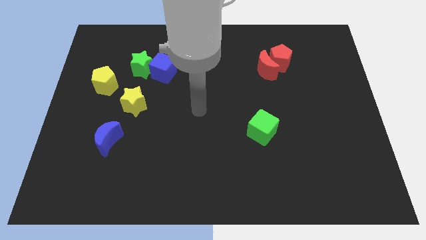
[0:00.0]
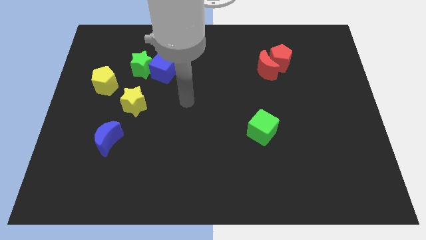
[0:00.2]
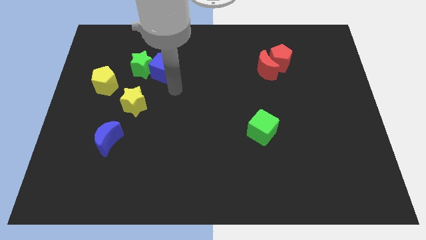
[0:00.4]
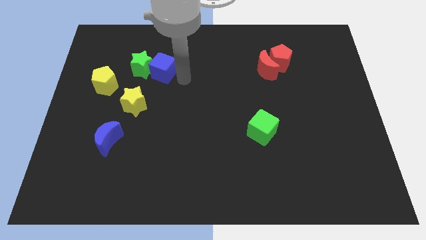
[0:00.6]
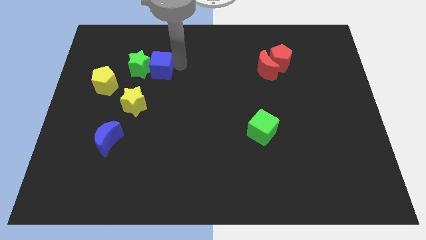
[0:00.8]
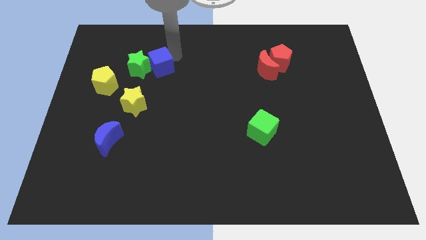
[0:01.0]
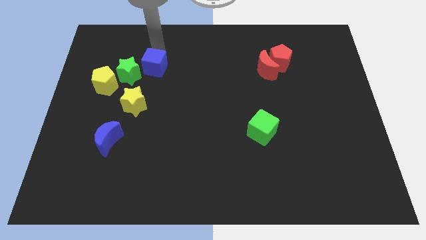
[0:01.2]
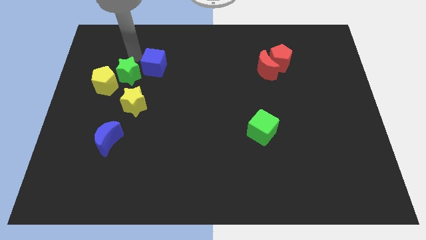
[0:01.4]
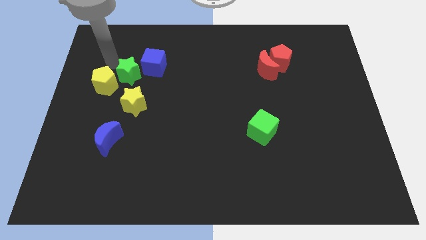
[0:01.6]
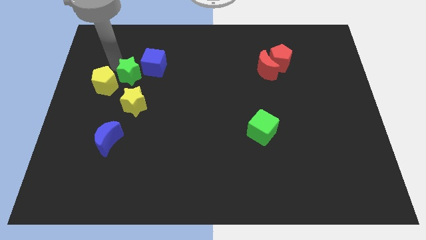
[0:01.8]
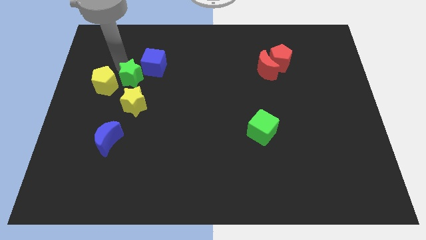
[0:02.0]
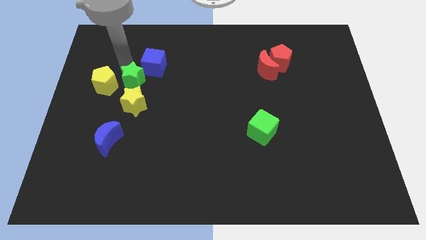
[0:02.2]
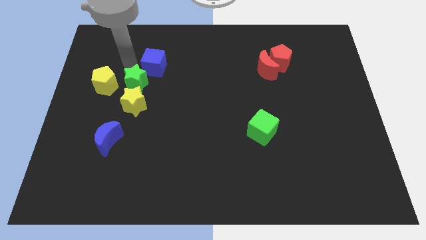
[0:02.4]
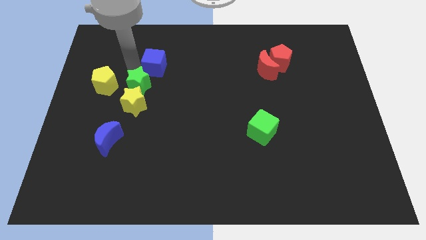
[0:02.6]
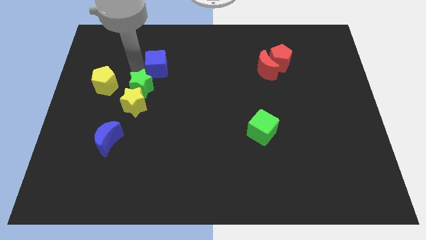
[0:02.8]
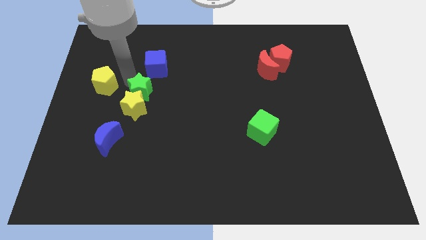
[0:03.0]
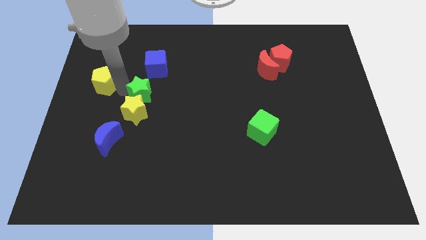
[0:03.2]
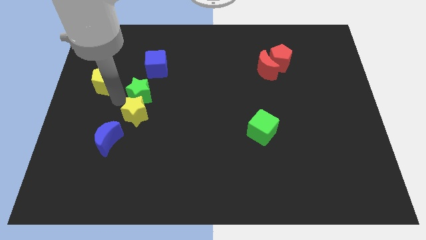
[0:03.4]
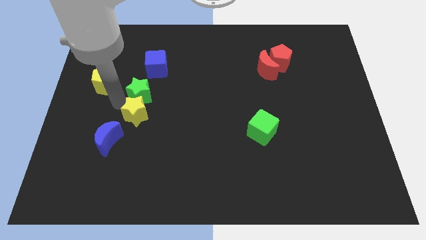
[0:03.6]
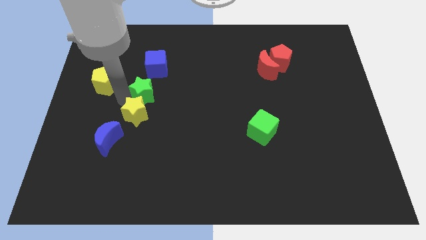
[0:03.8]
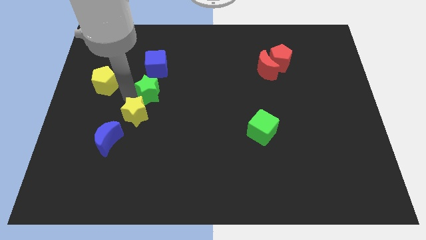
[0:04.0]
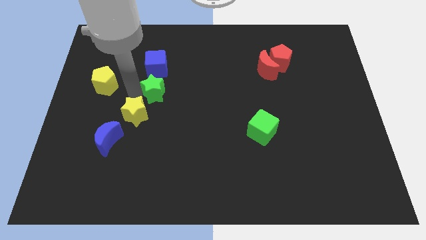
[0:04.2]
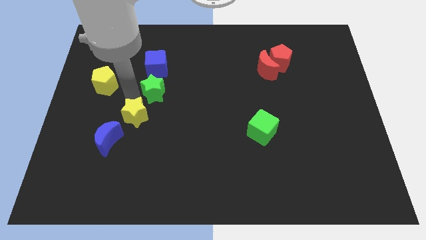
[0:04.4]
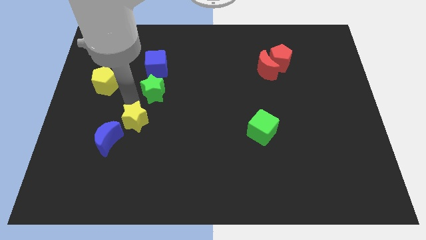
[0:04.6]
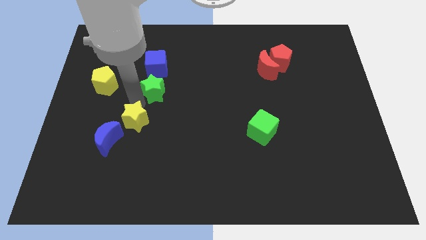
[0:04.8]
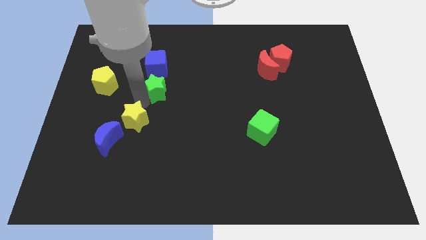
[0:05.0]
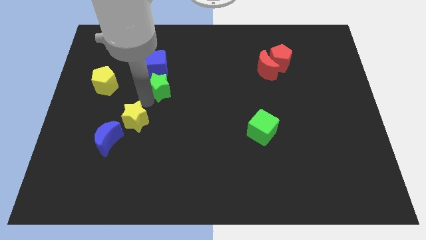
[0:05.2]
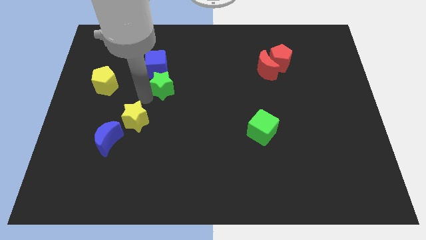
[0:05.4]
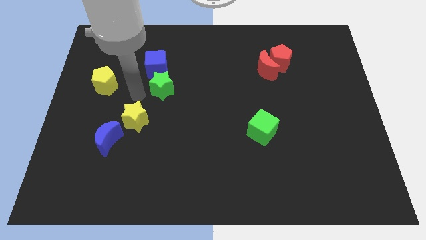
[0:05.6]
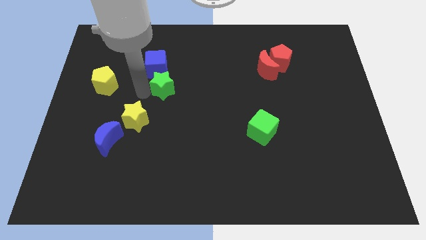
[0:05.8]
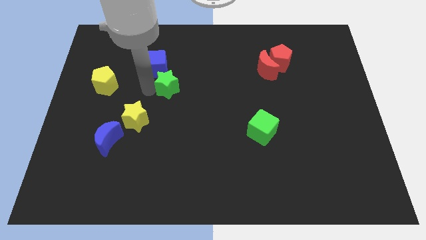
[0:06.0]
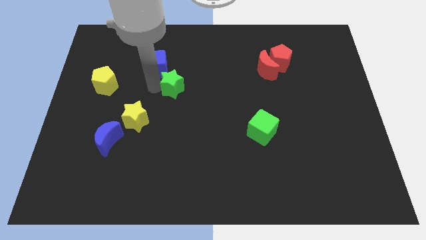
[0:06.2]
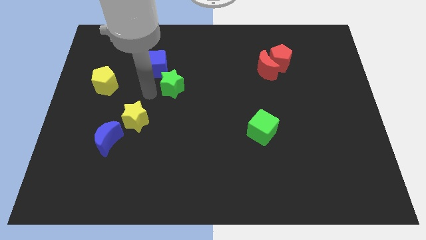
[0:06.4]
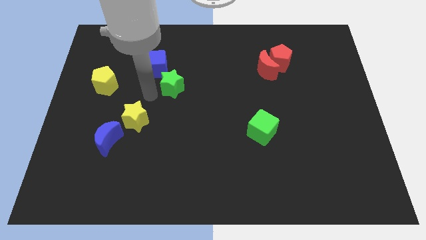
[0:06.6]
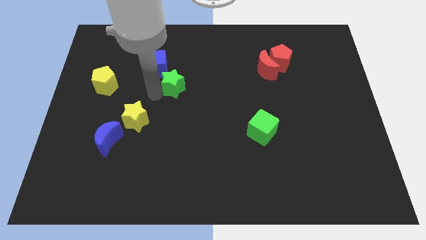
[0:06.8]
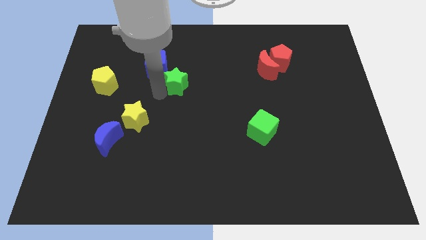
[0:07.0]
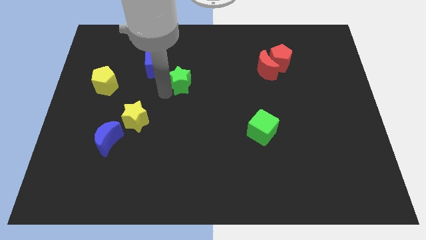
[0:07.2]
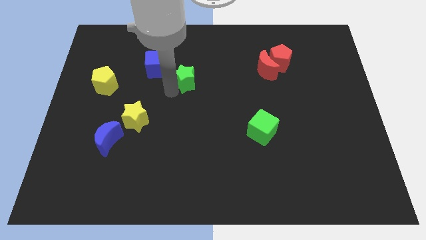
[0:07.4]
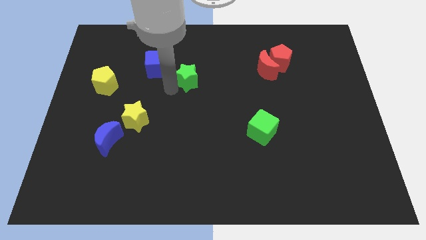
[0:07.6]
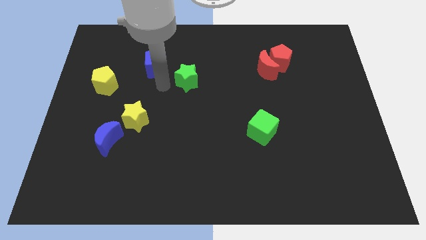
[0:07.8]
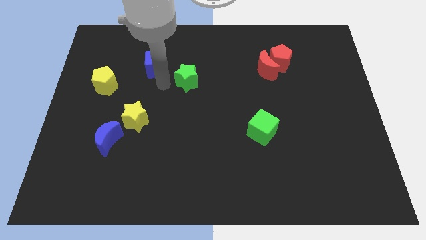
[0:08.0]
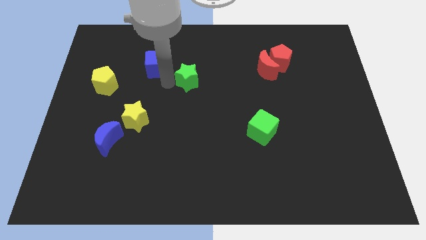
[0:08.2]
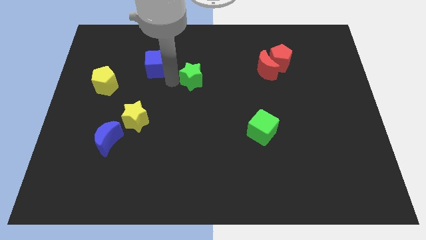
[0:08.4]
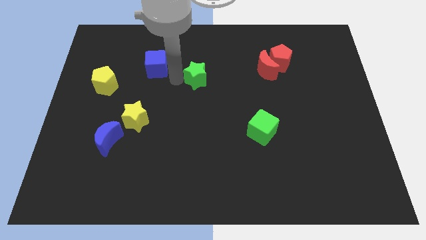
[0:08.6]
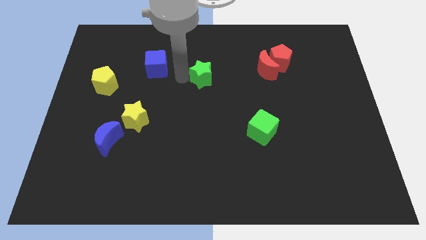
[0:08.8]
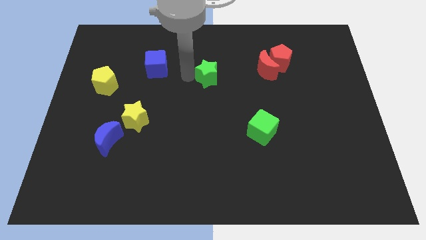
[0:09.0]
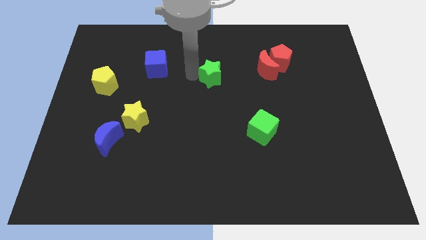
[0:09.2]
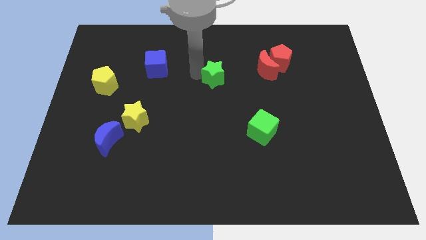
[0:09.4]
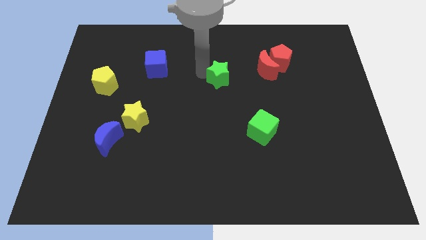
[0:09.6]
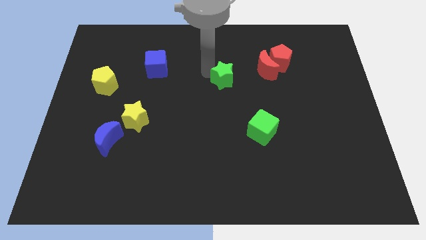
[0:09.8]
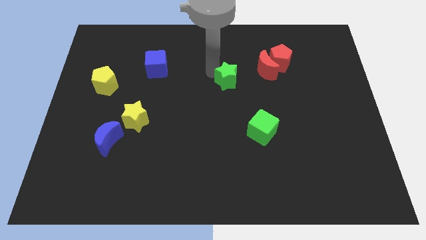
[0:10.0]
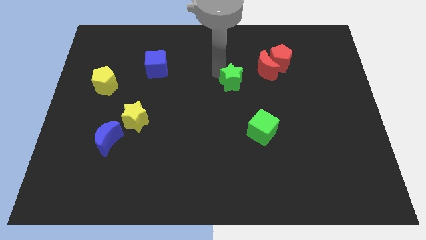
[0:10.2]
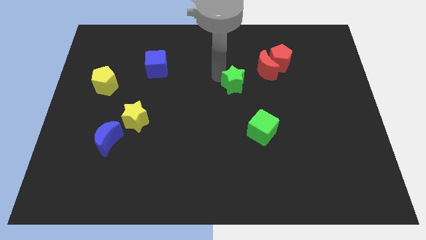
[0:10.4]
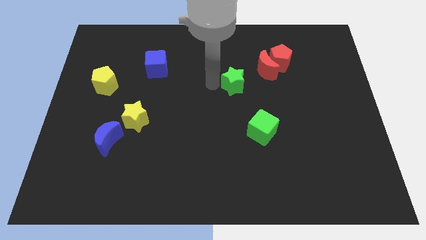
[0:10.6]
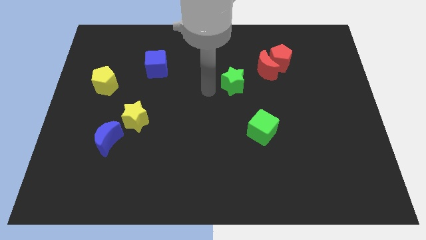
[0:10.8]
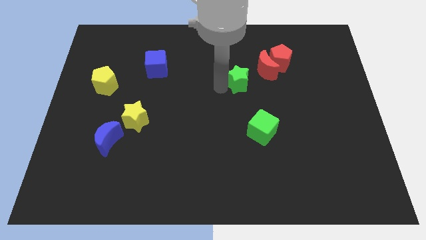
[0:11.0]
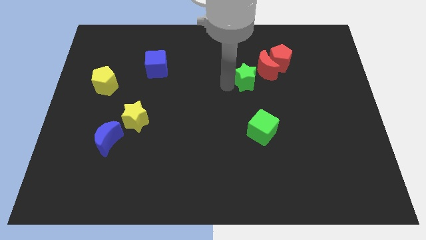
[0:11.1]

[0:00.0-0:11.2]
put the green star to the bottom left of the red pentagon

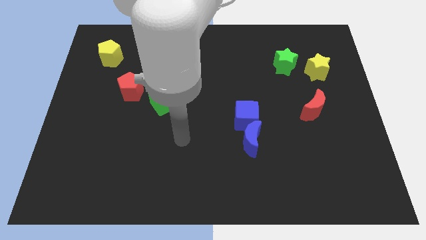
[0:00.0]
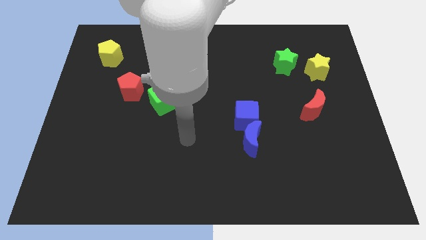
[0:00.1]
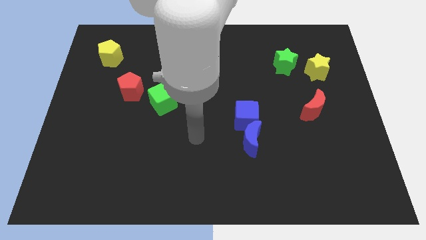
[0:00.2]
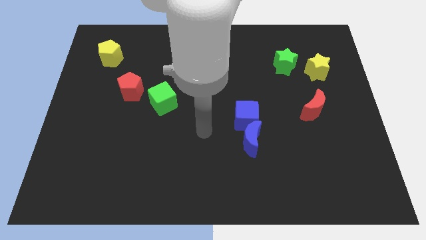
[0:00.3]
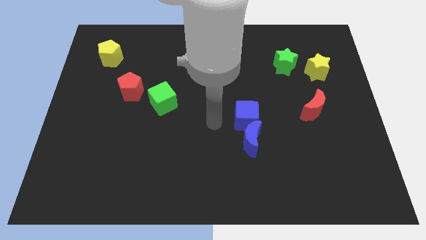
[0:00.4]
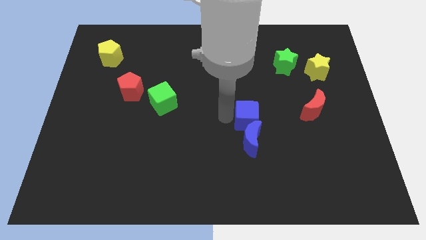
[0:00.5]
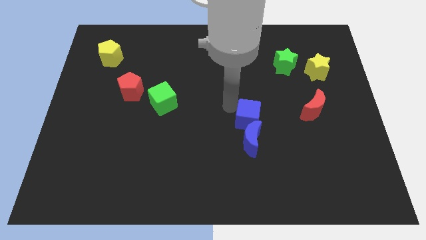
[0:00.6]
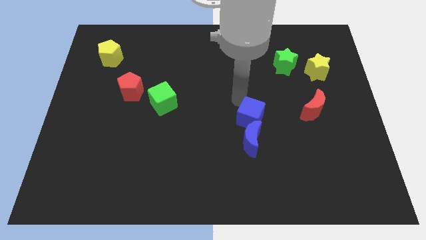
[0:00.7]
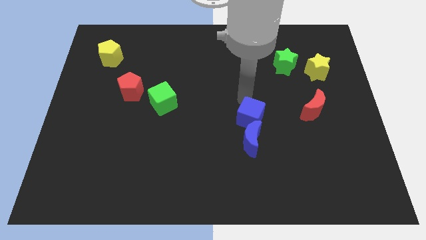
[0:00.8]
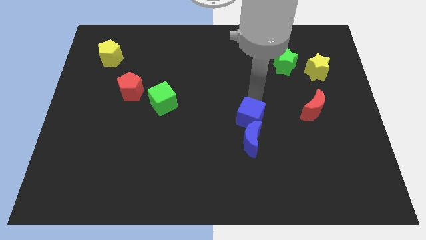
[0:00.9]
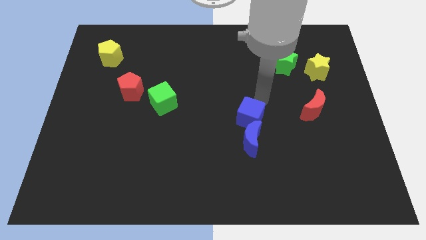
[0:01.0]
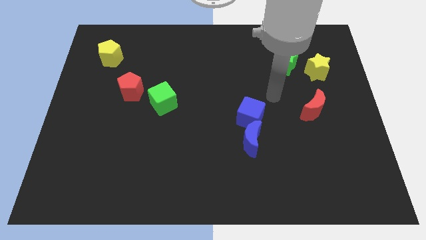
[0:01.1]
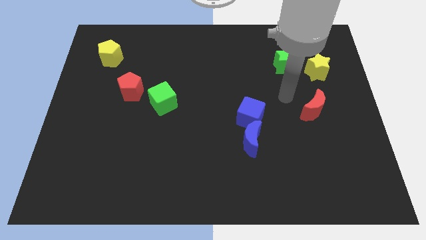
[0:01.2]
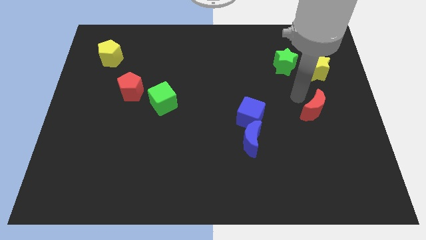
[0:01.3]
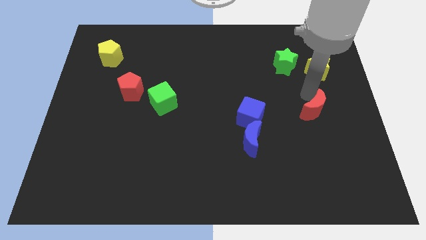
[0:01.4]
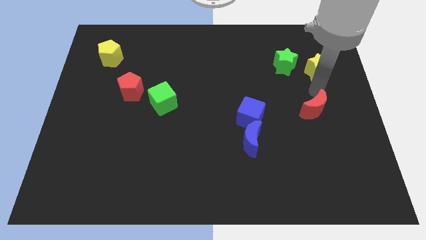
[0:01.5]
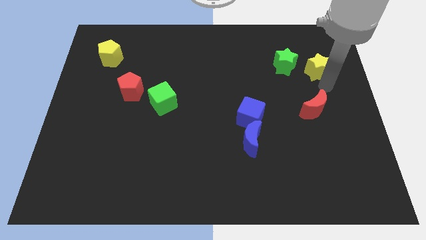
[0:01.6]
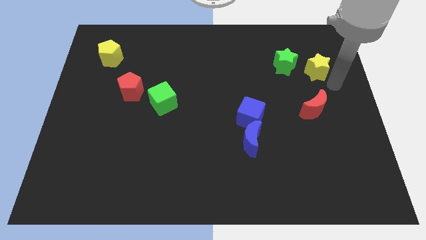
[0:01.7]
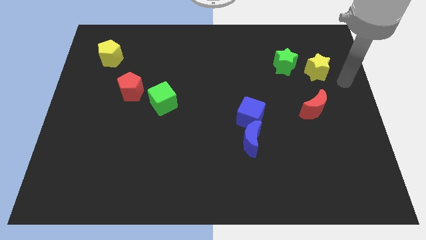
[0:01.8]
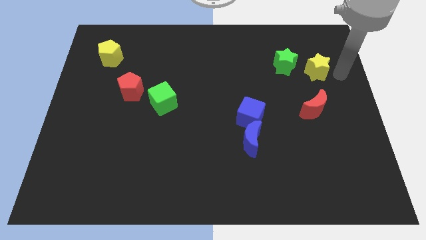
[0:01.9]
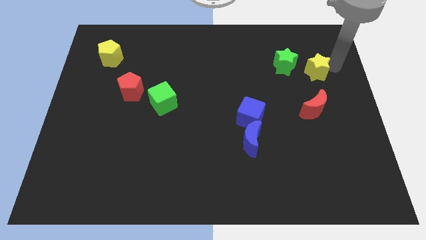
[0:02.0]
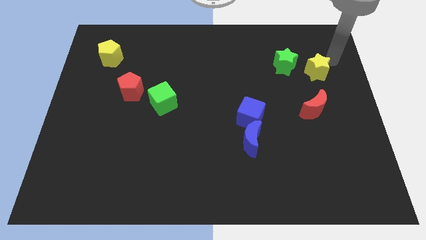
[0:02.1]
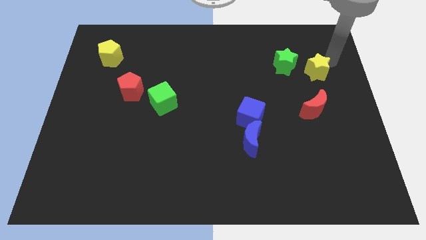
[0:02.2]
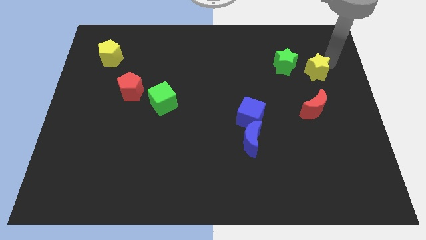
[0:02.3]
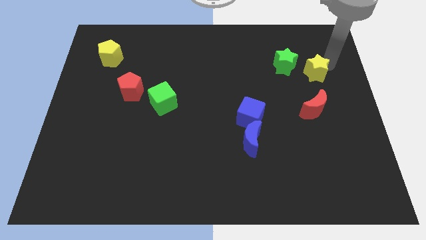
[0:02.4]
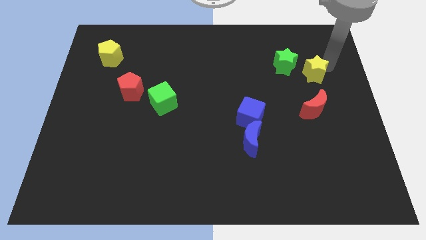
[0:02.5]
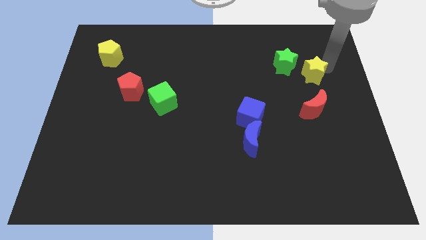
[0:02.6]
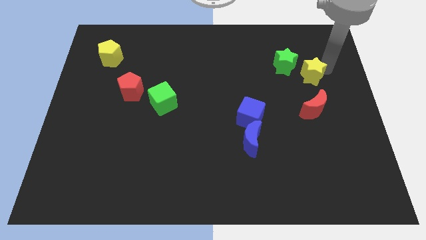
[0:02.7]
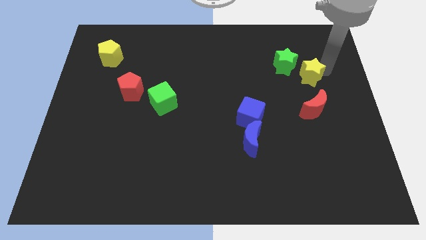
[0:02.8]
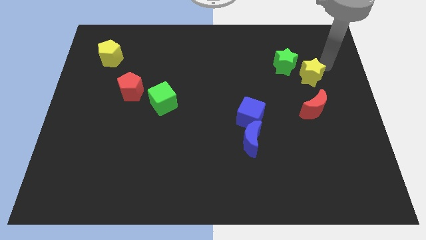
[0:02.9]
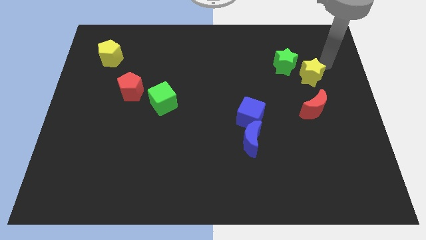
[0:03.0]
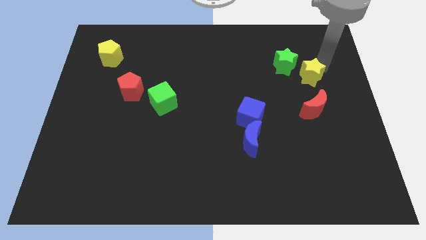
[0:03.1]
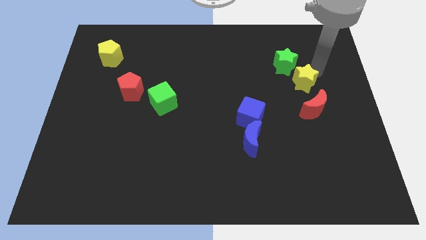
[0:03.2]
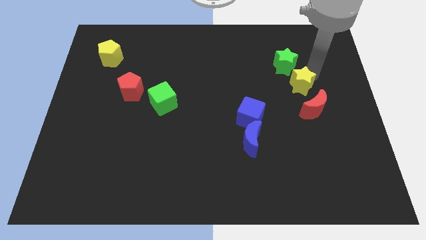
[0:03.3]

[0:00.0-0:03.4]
push the yellow star diagonally up and to the left of the red moon
